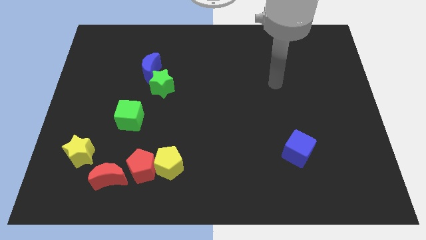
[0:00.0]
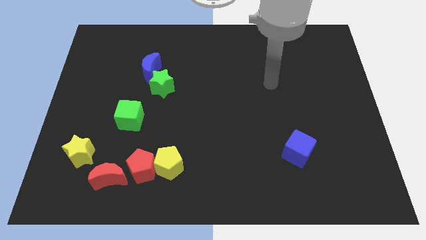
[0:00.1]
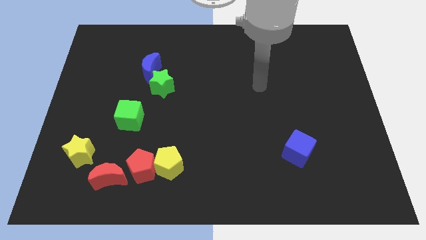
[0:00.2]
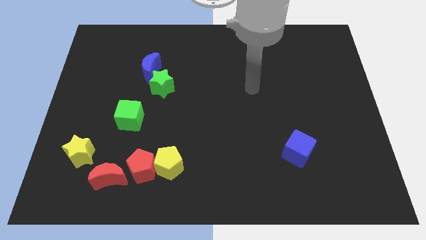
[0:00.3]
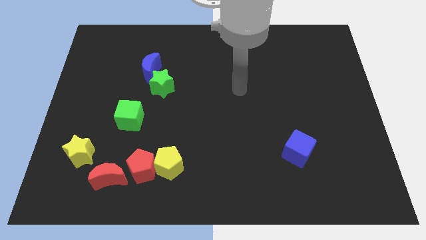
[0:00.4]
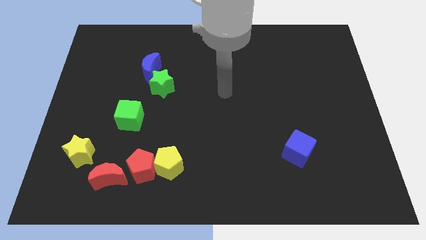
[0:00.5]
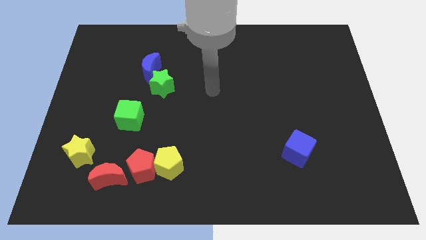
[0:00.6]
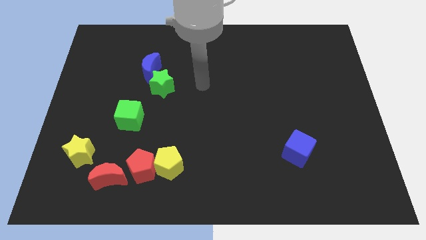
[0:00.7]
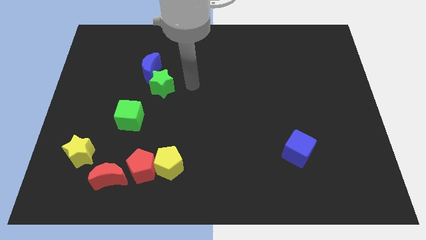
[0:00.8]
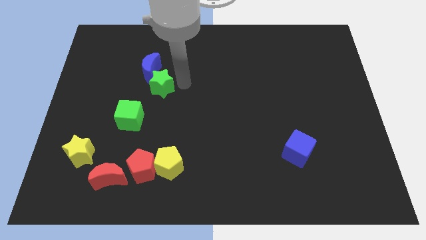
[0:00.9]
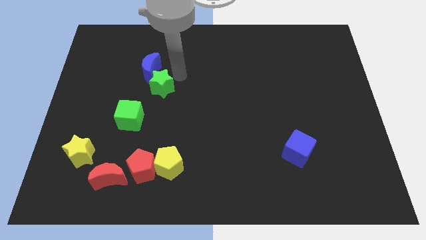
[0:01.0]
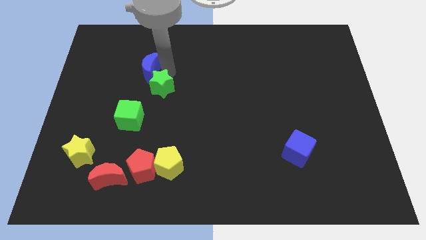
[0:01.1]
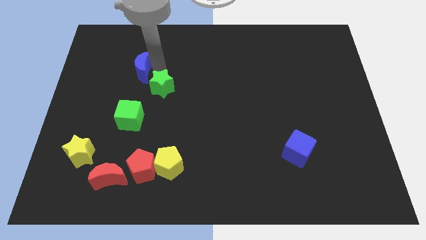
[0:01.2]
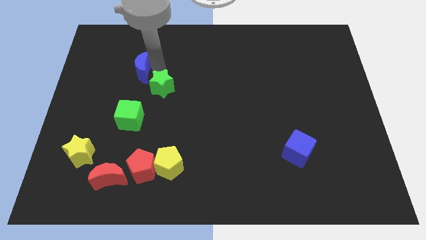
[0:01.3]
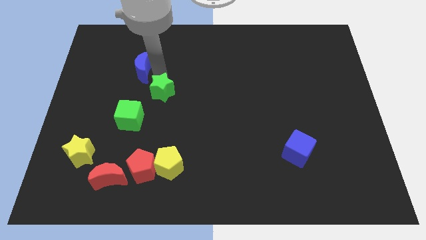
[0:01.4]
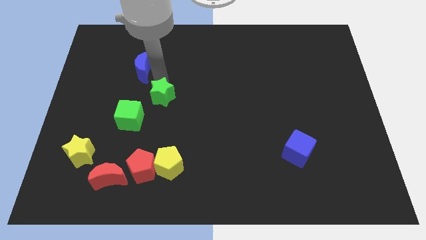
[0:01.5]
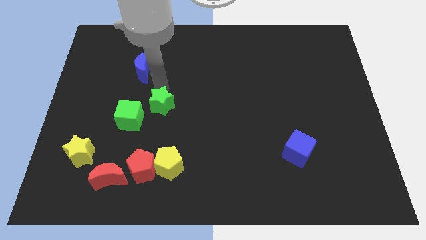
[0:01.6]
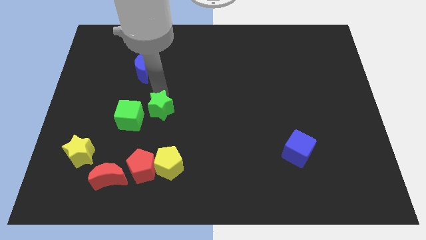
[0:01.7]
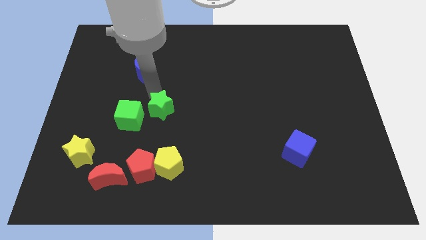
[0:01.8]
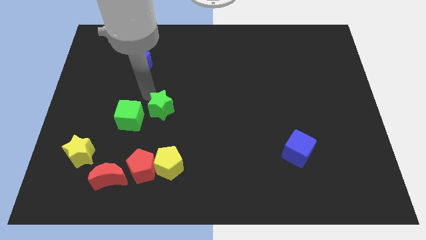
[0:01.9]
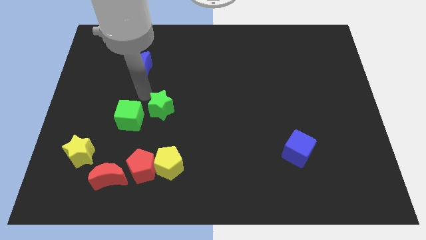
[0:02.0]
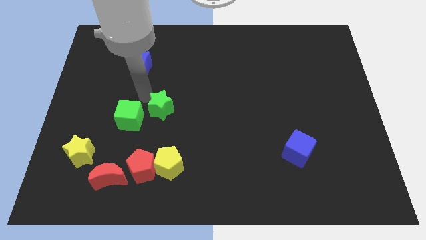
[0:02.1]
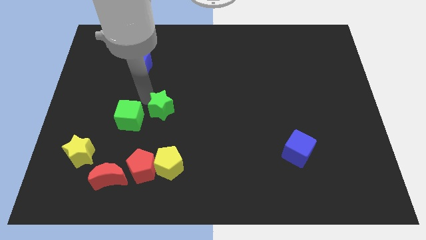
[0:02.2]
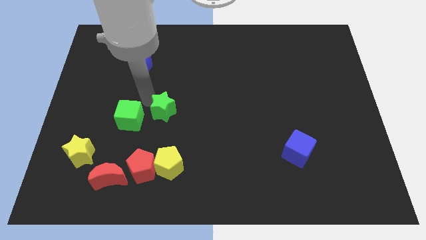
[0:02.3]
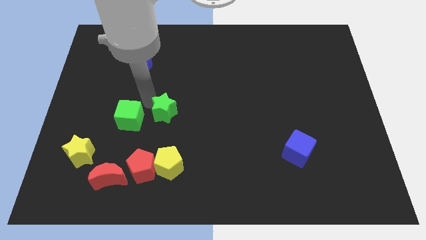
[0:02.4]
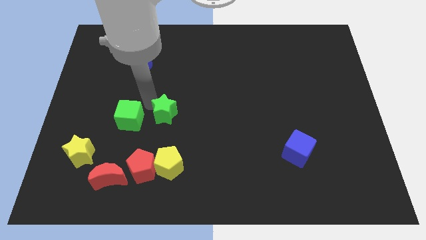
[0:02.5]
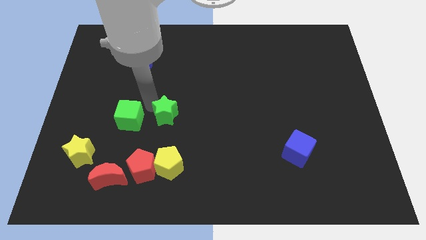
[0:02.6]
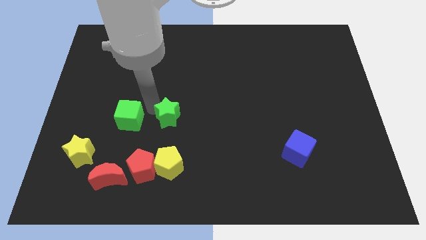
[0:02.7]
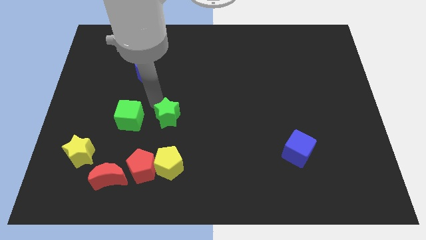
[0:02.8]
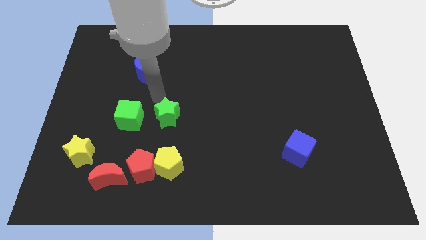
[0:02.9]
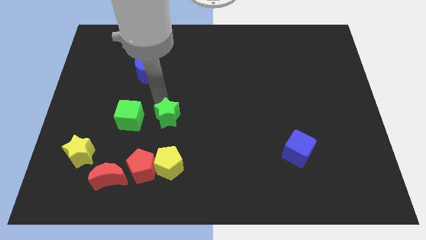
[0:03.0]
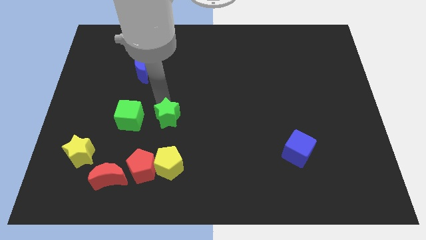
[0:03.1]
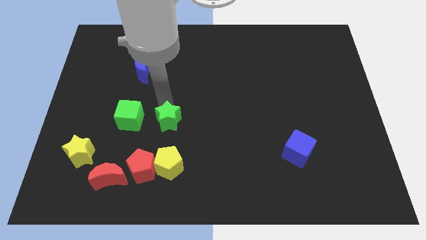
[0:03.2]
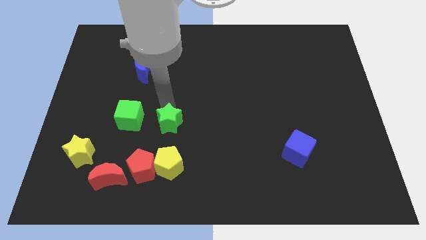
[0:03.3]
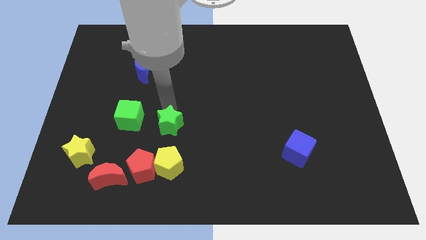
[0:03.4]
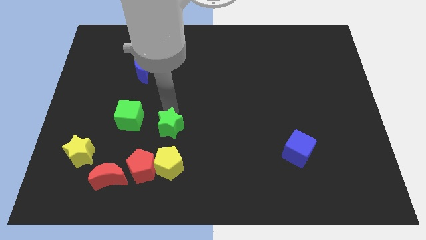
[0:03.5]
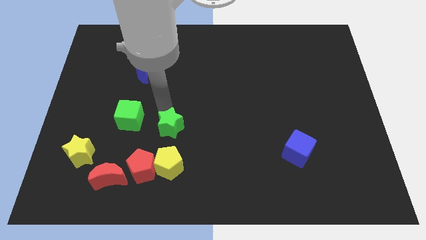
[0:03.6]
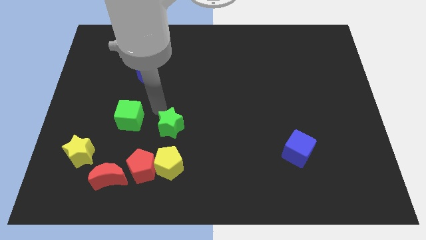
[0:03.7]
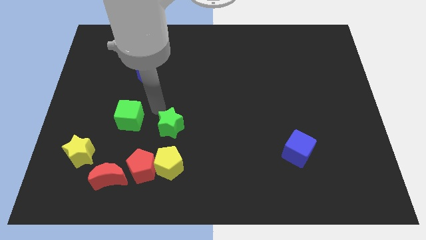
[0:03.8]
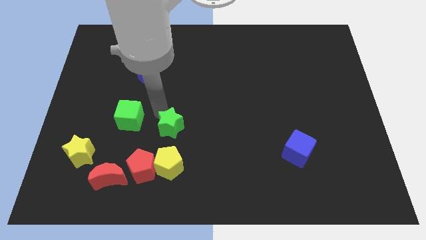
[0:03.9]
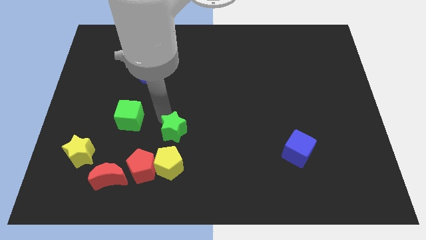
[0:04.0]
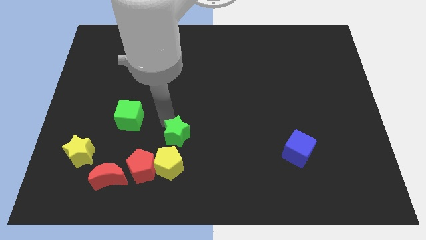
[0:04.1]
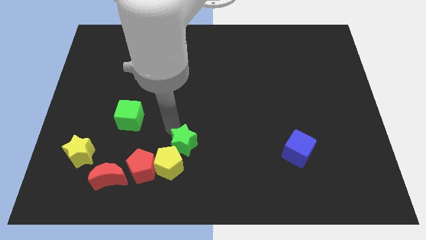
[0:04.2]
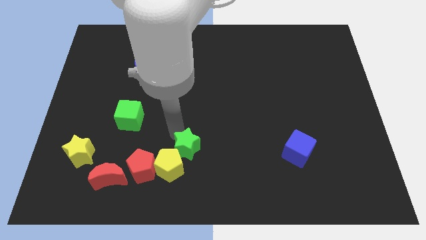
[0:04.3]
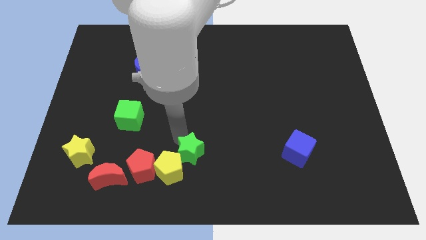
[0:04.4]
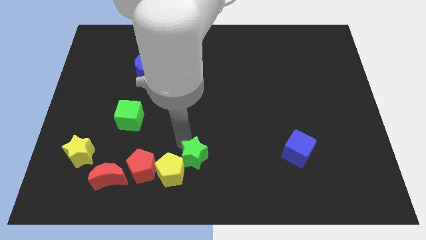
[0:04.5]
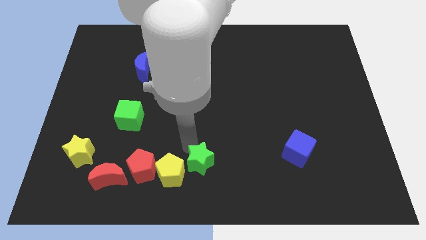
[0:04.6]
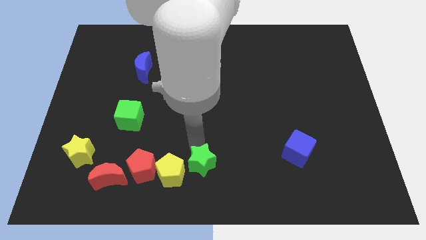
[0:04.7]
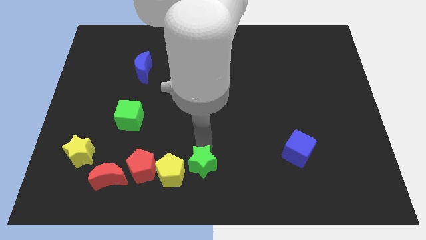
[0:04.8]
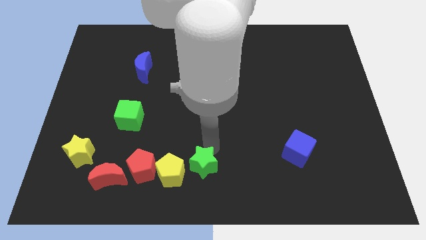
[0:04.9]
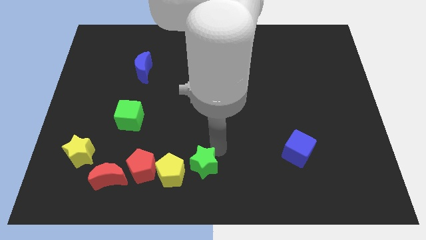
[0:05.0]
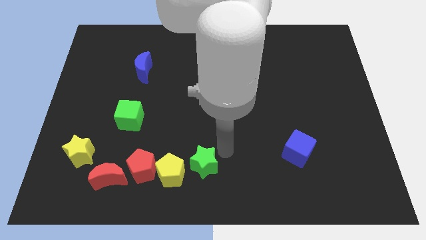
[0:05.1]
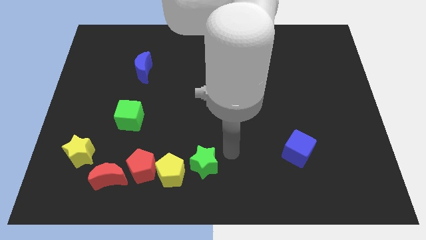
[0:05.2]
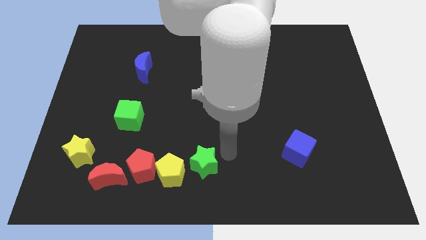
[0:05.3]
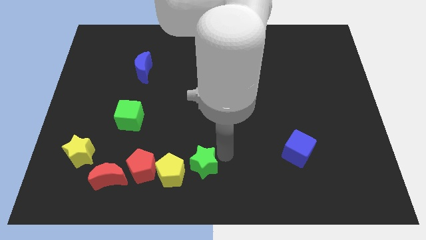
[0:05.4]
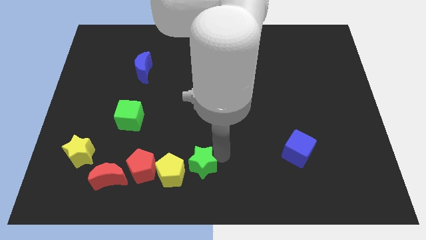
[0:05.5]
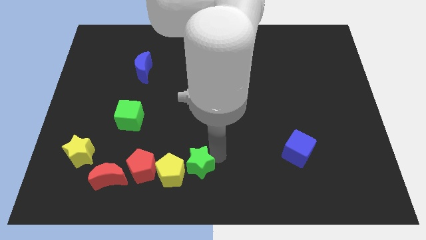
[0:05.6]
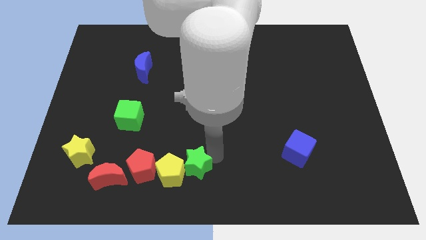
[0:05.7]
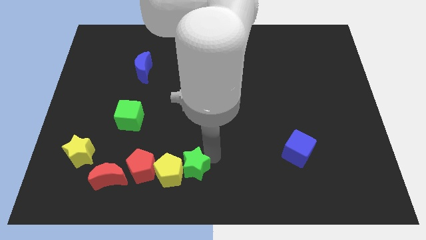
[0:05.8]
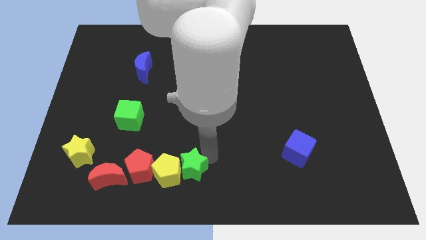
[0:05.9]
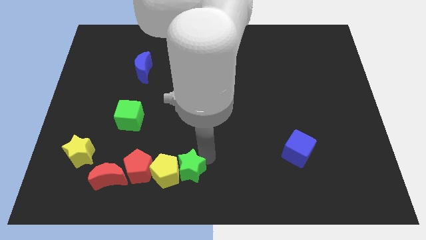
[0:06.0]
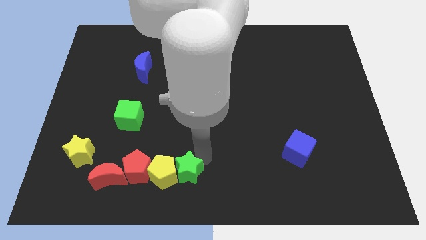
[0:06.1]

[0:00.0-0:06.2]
move the green star to the right of the red moon

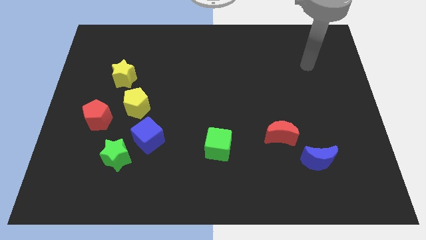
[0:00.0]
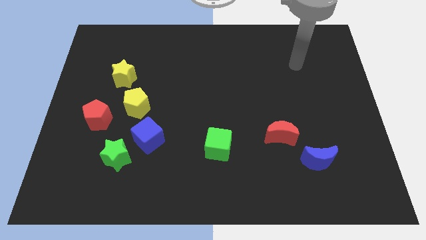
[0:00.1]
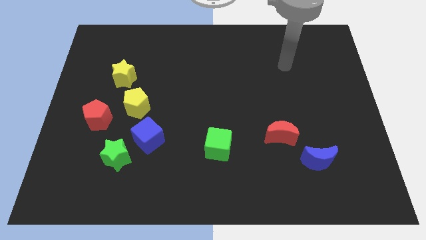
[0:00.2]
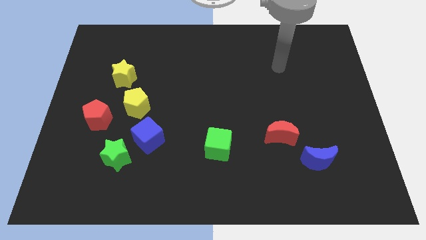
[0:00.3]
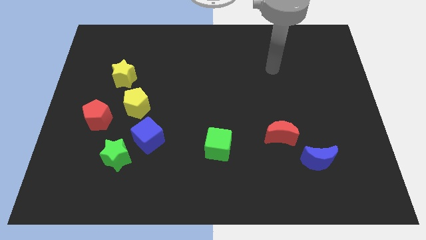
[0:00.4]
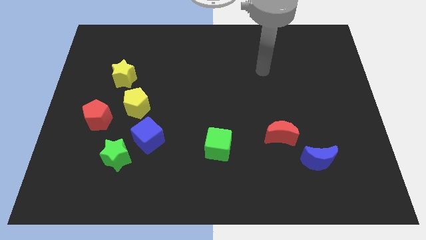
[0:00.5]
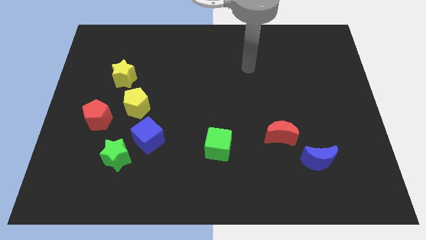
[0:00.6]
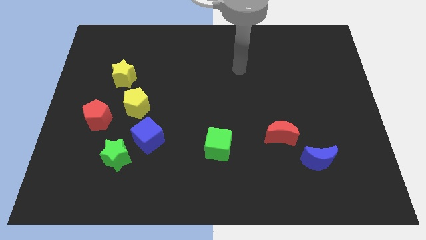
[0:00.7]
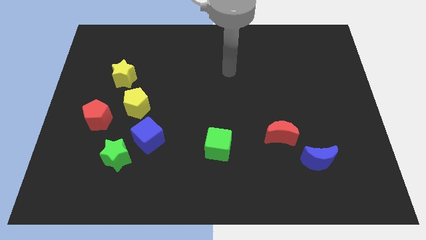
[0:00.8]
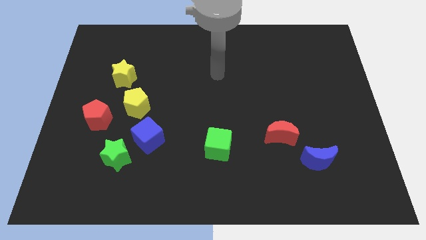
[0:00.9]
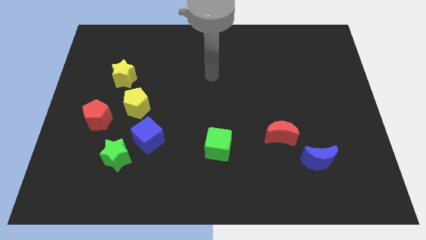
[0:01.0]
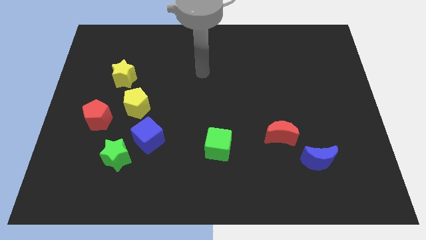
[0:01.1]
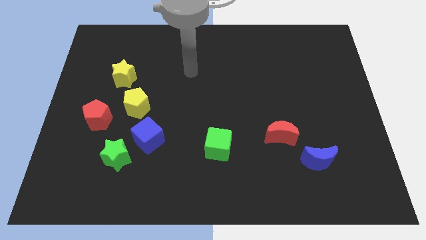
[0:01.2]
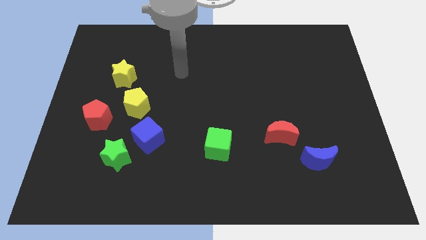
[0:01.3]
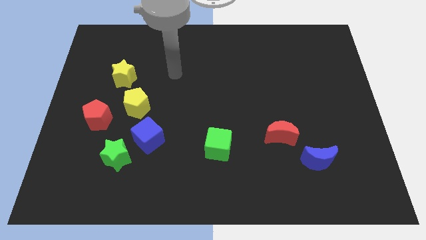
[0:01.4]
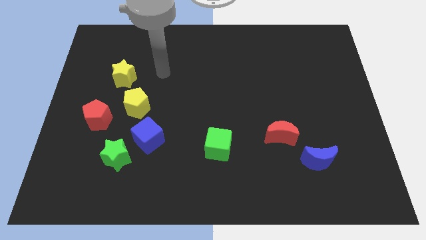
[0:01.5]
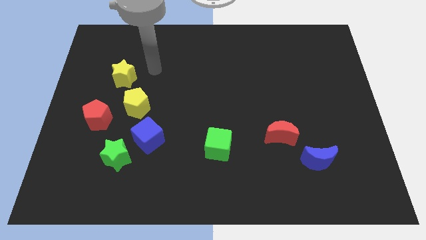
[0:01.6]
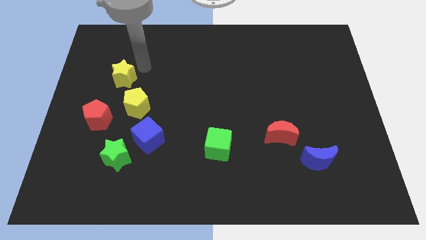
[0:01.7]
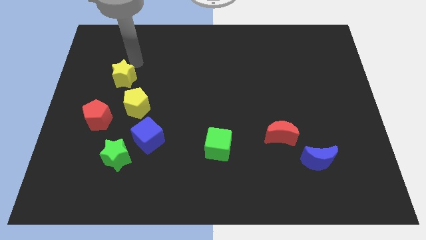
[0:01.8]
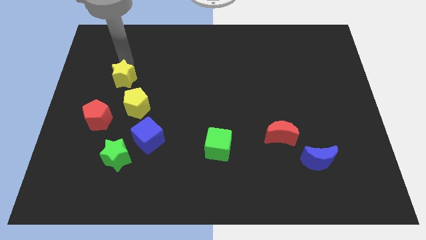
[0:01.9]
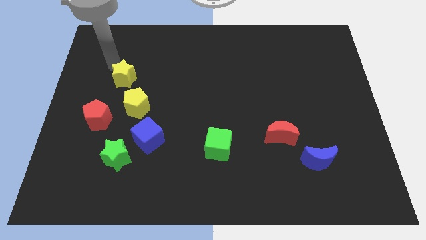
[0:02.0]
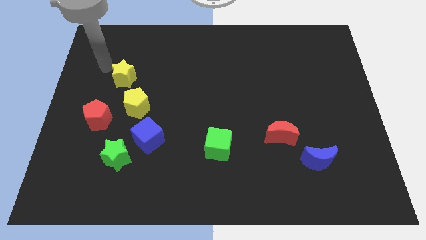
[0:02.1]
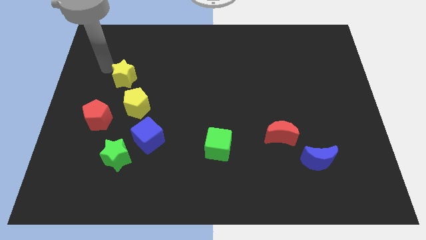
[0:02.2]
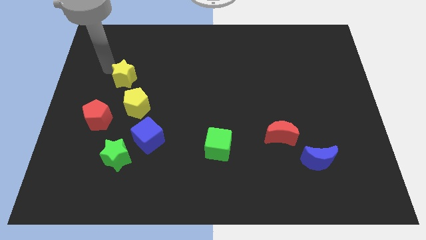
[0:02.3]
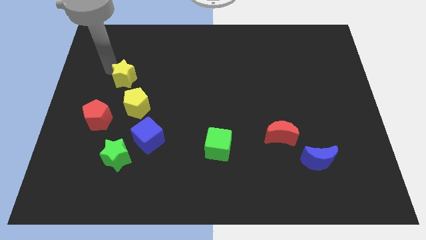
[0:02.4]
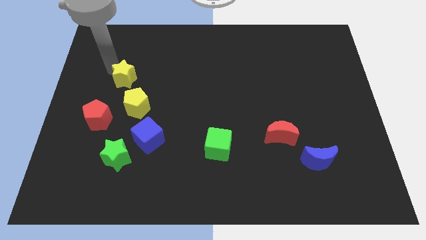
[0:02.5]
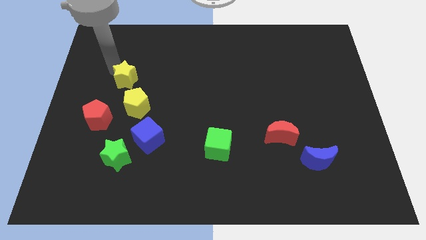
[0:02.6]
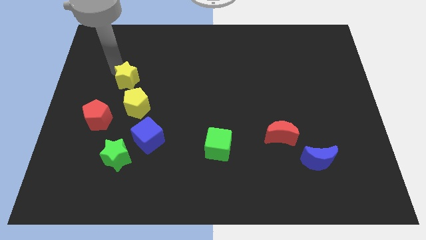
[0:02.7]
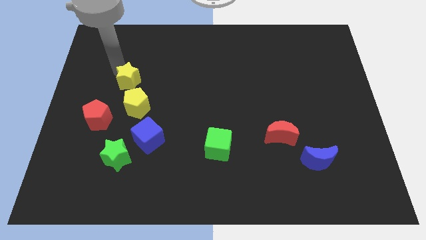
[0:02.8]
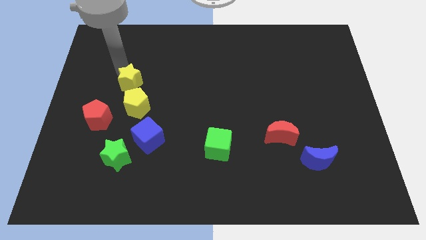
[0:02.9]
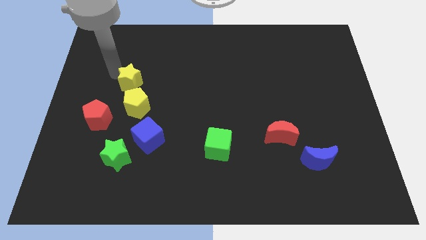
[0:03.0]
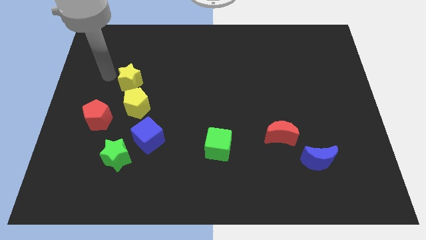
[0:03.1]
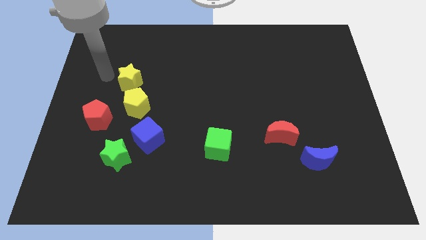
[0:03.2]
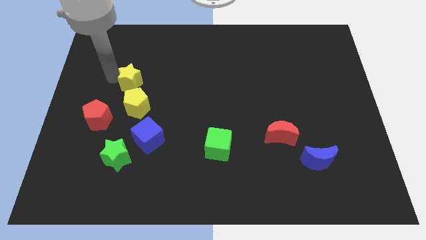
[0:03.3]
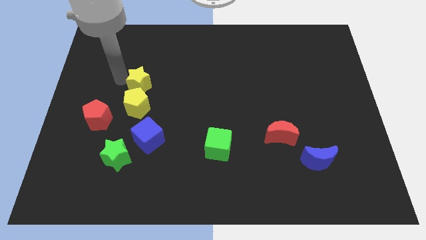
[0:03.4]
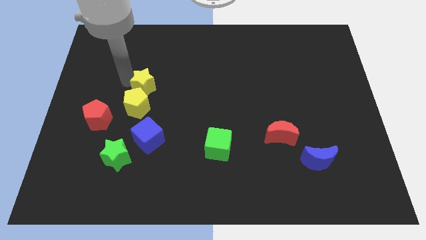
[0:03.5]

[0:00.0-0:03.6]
move the yellow star to the top right side of the yellow pentagon
